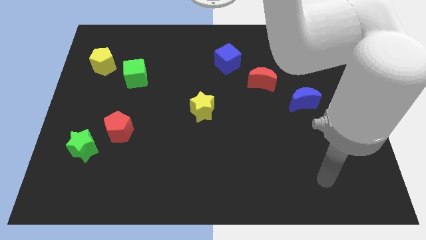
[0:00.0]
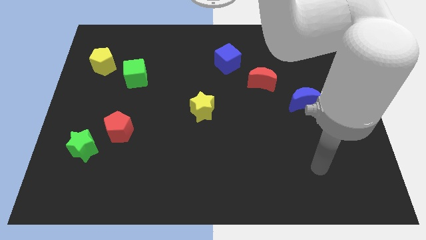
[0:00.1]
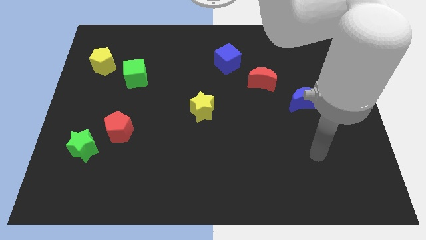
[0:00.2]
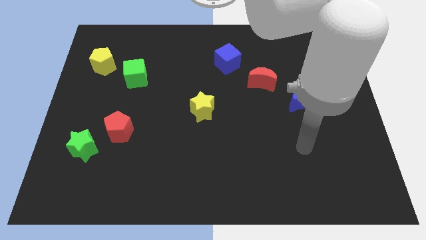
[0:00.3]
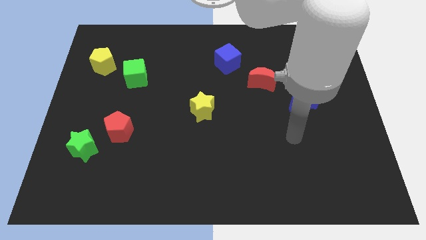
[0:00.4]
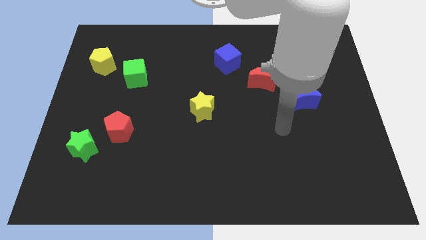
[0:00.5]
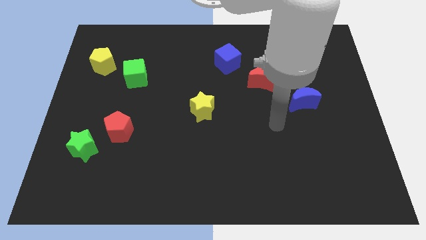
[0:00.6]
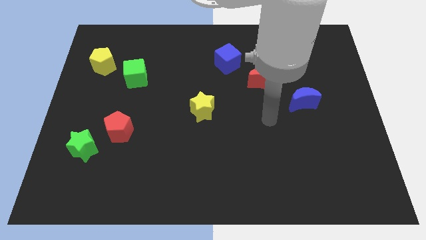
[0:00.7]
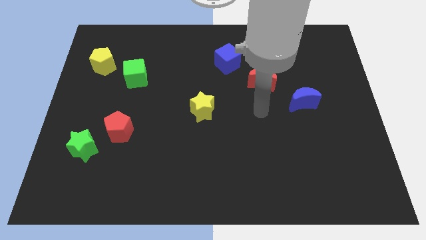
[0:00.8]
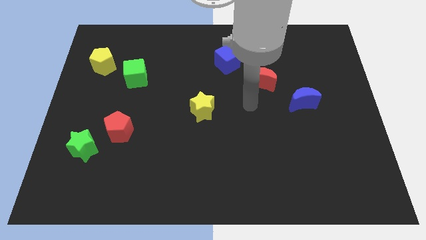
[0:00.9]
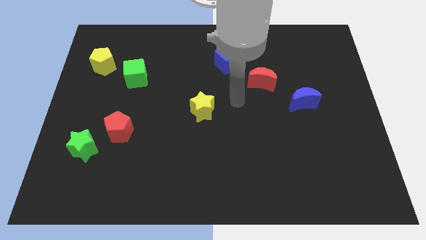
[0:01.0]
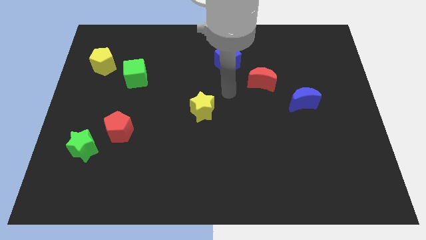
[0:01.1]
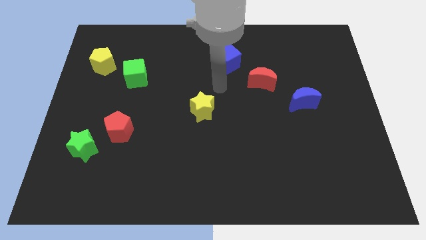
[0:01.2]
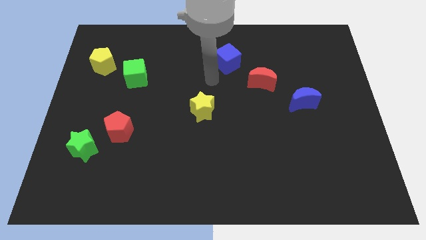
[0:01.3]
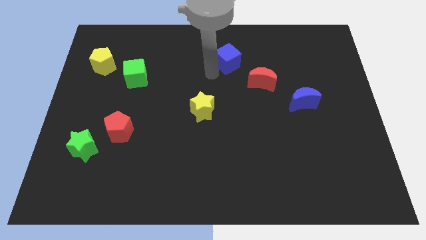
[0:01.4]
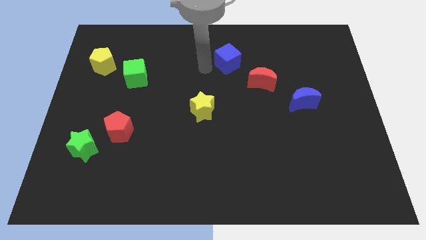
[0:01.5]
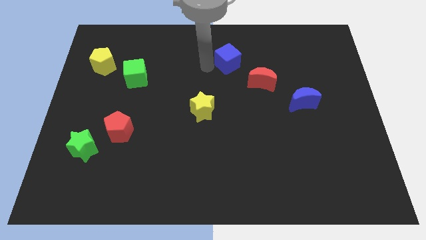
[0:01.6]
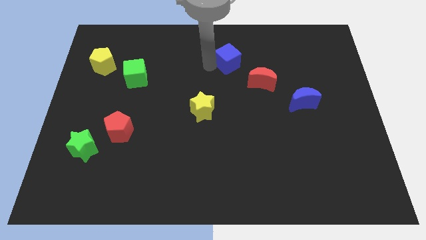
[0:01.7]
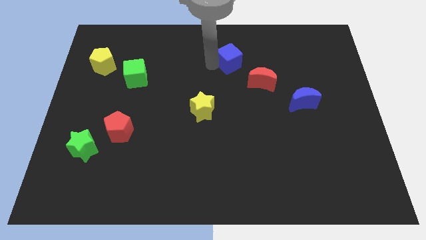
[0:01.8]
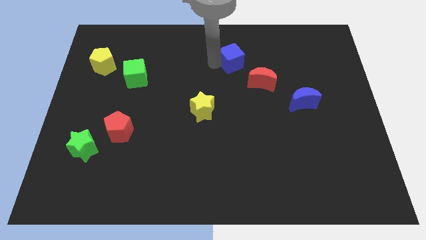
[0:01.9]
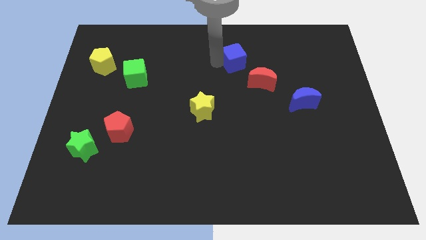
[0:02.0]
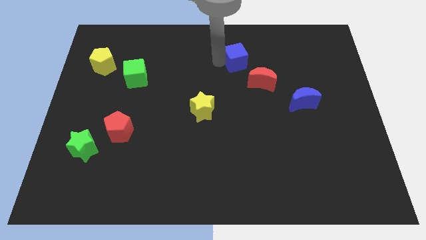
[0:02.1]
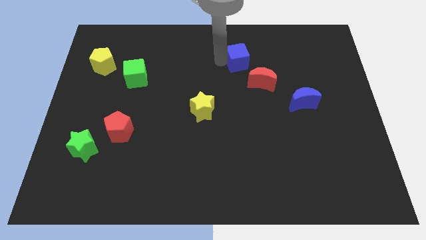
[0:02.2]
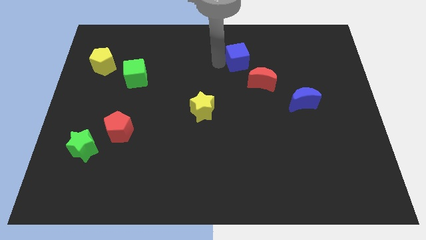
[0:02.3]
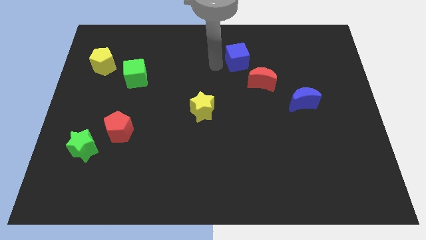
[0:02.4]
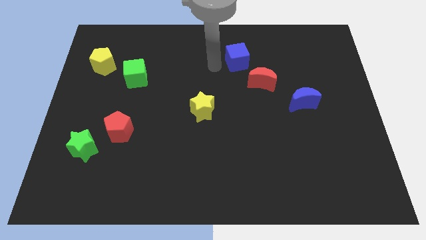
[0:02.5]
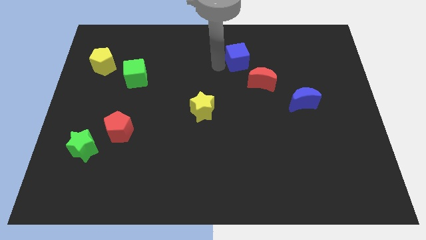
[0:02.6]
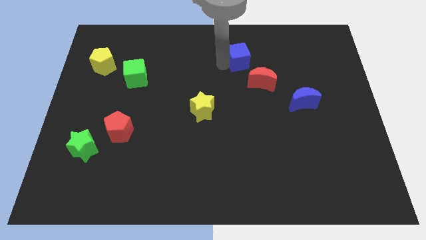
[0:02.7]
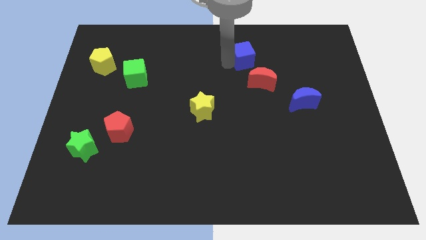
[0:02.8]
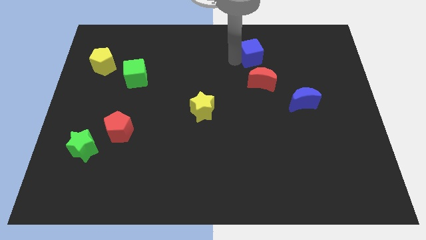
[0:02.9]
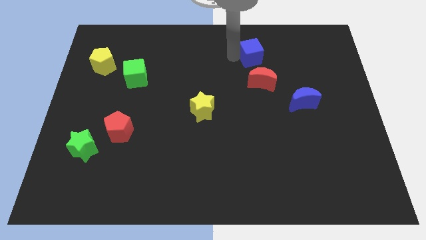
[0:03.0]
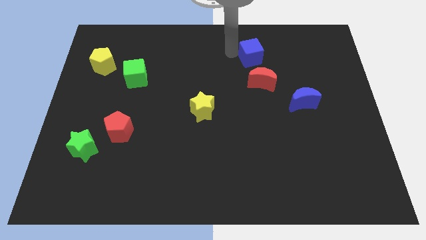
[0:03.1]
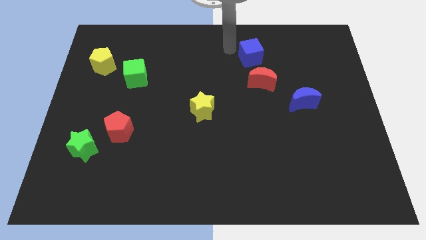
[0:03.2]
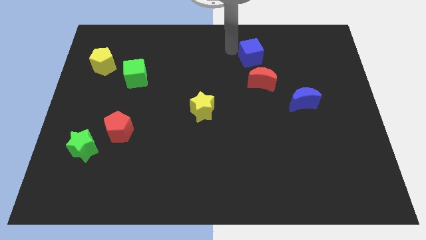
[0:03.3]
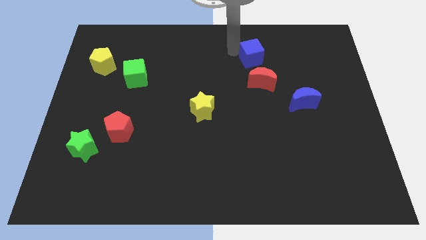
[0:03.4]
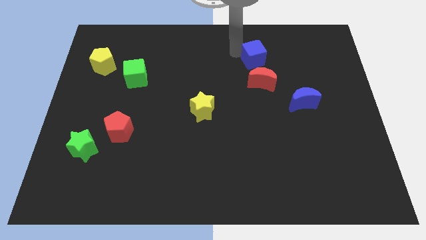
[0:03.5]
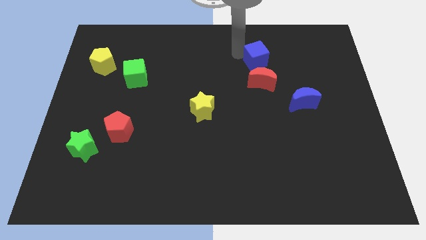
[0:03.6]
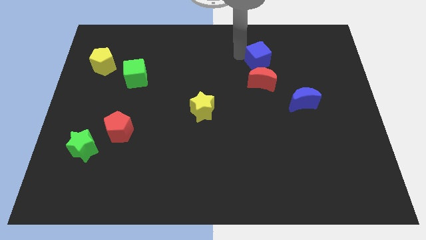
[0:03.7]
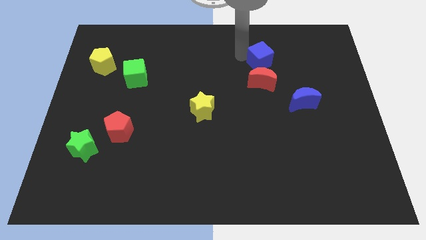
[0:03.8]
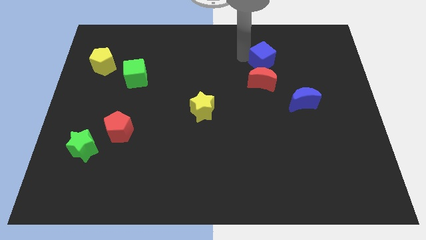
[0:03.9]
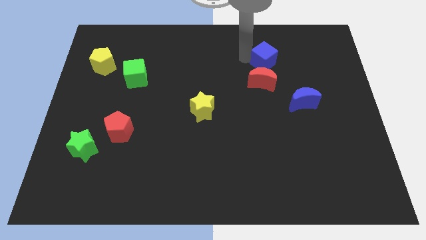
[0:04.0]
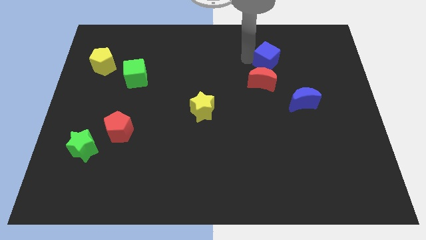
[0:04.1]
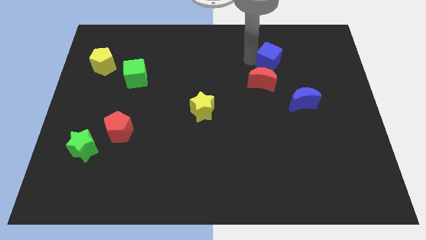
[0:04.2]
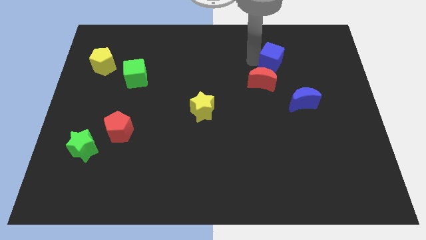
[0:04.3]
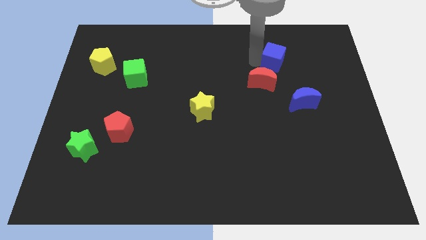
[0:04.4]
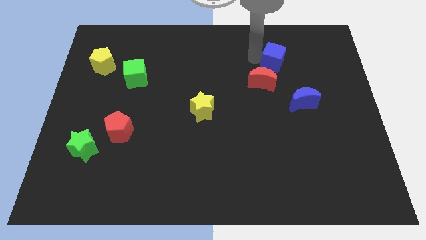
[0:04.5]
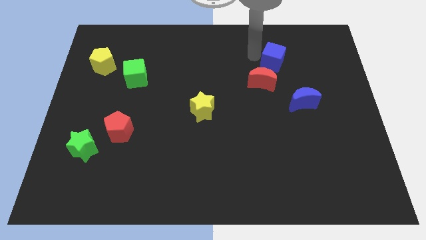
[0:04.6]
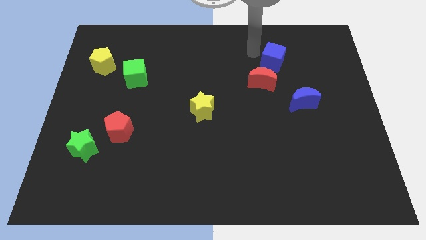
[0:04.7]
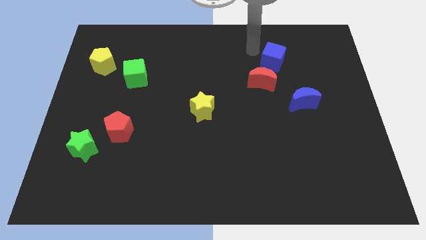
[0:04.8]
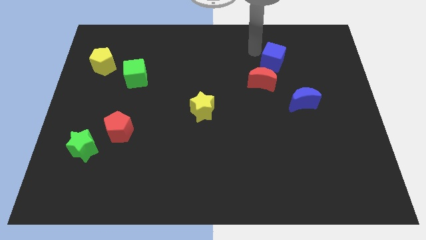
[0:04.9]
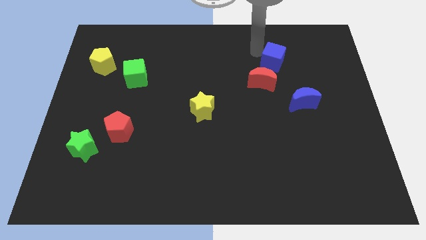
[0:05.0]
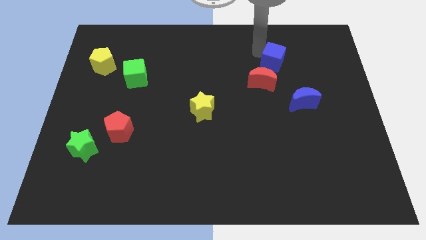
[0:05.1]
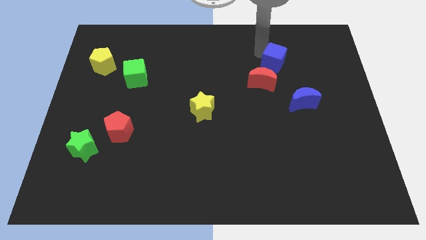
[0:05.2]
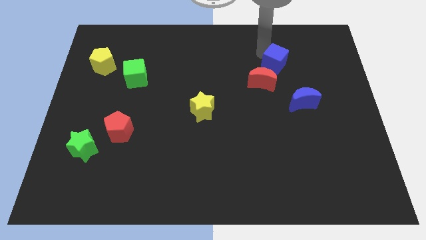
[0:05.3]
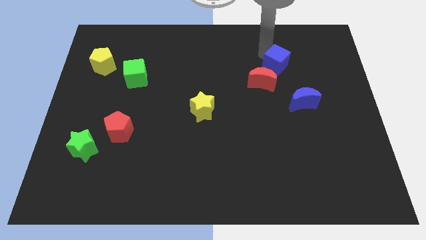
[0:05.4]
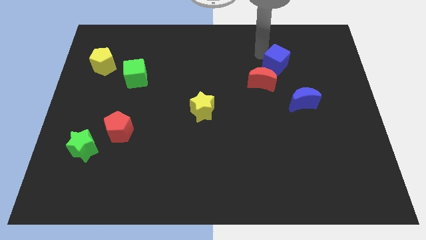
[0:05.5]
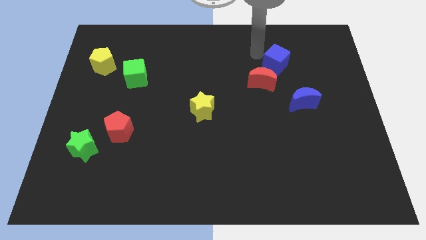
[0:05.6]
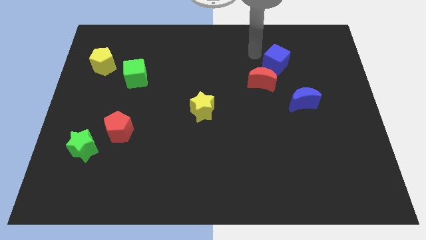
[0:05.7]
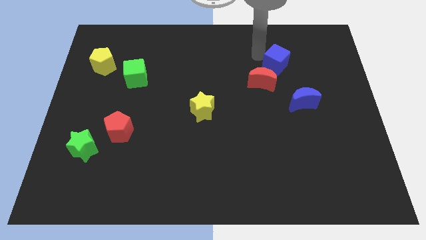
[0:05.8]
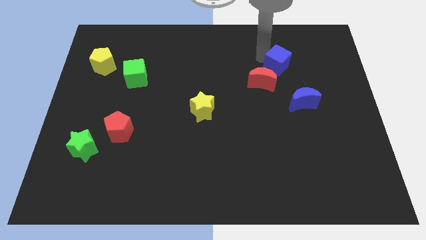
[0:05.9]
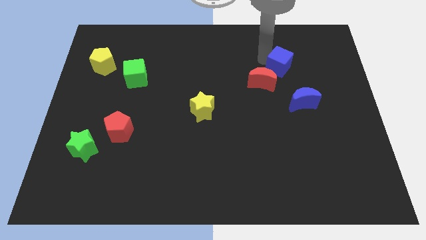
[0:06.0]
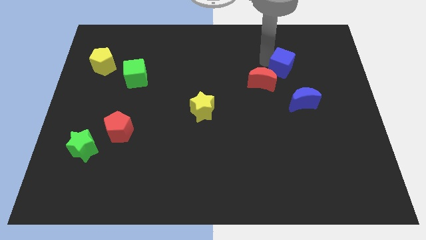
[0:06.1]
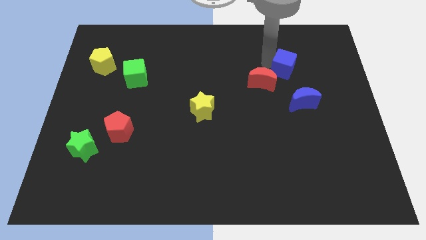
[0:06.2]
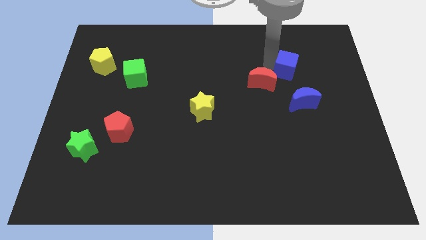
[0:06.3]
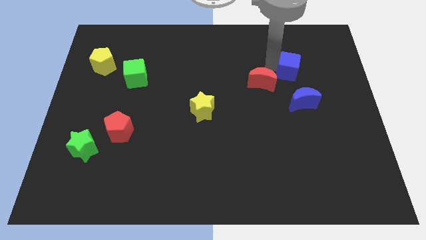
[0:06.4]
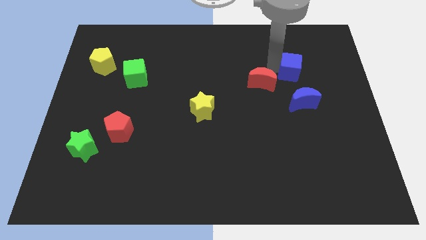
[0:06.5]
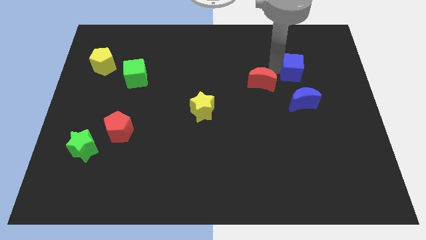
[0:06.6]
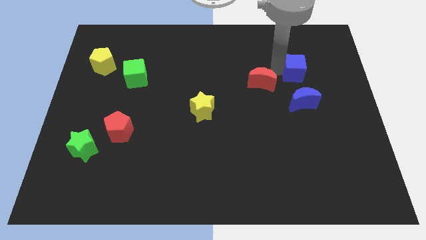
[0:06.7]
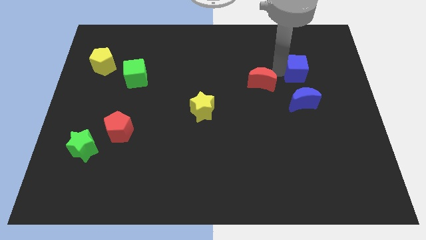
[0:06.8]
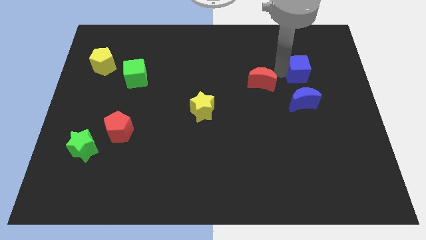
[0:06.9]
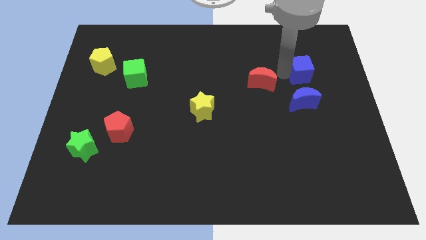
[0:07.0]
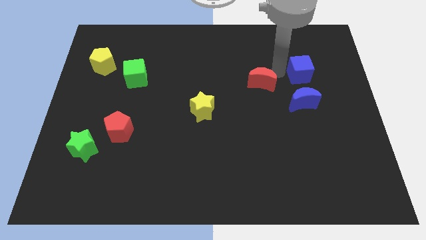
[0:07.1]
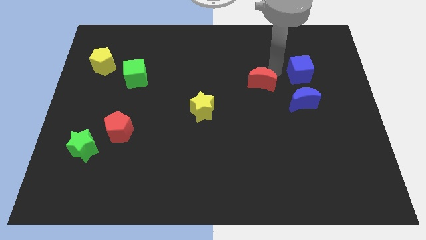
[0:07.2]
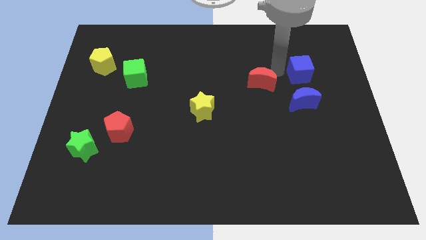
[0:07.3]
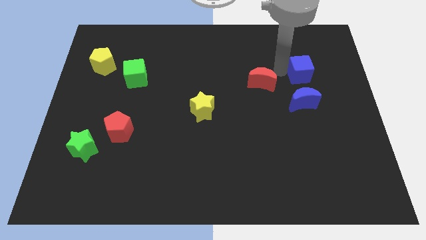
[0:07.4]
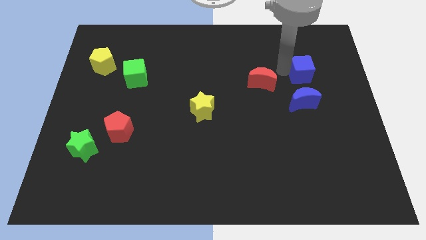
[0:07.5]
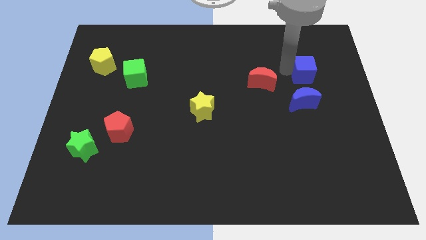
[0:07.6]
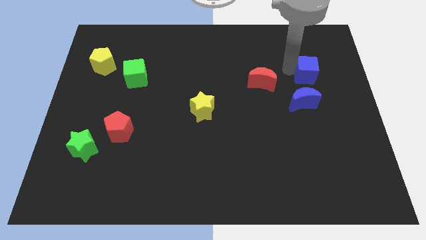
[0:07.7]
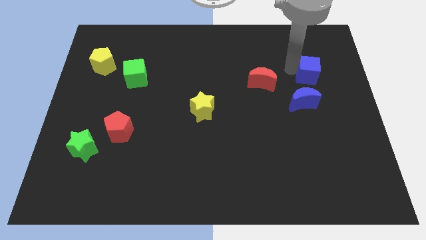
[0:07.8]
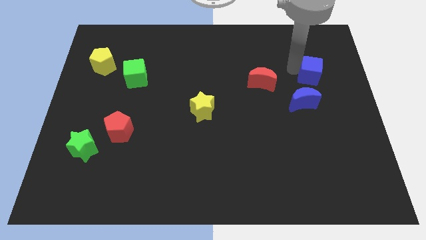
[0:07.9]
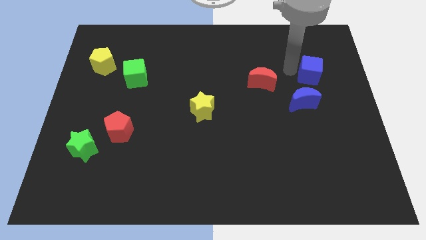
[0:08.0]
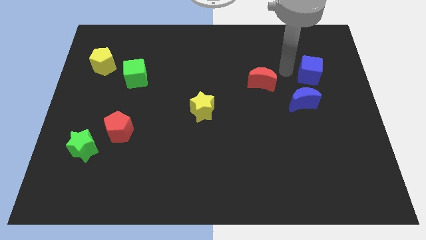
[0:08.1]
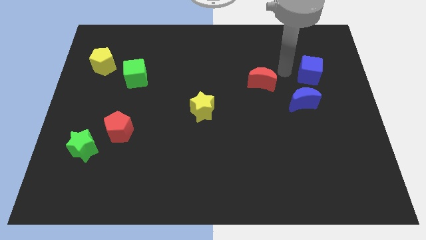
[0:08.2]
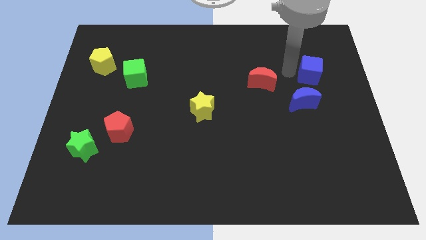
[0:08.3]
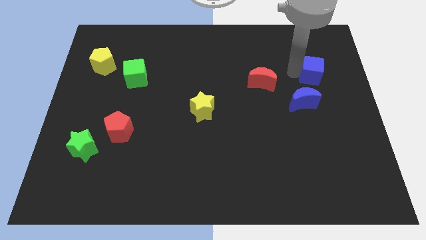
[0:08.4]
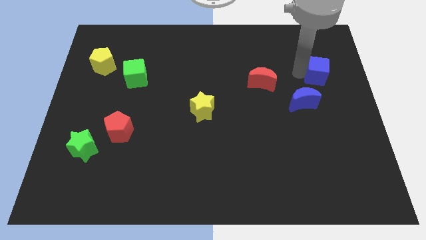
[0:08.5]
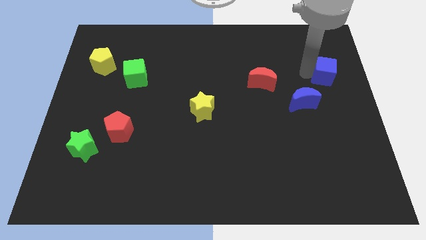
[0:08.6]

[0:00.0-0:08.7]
put the blue cube to the right side
